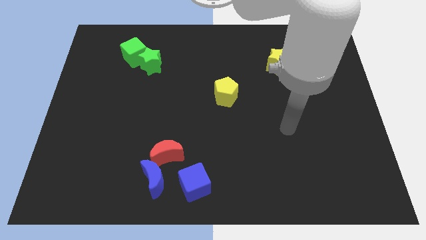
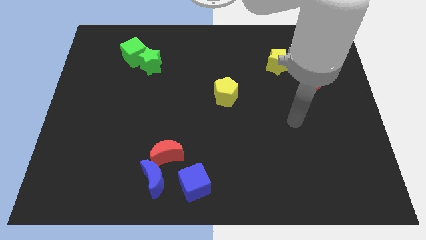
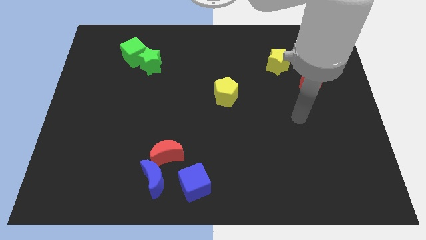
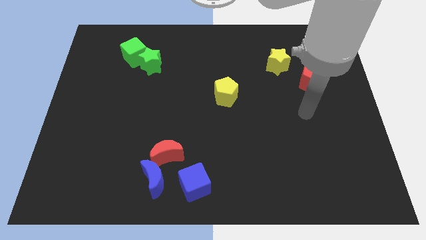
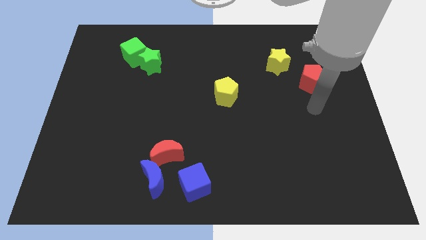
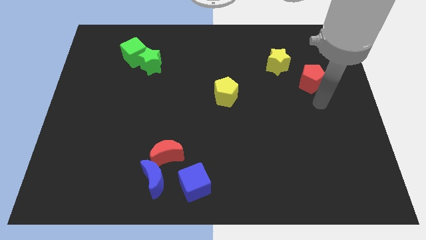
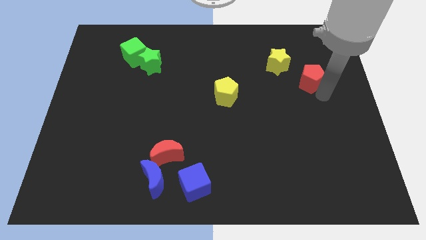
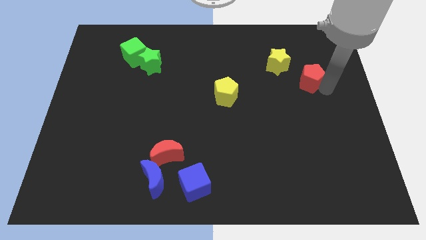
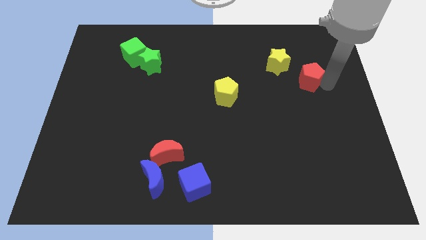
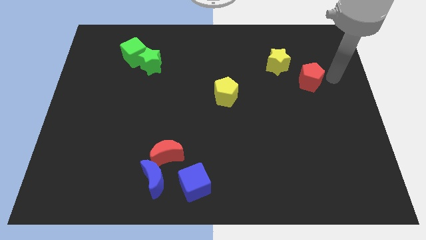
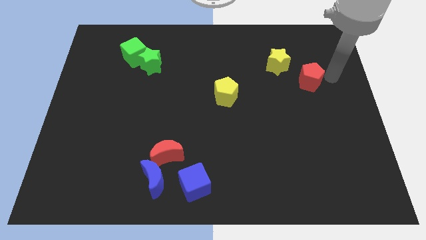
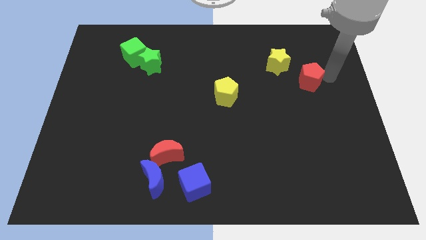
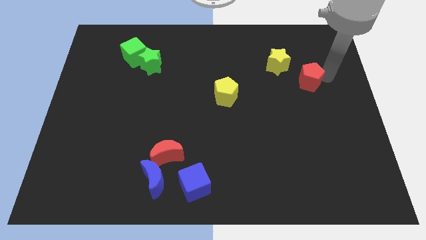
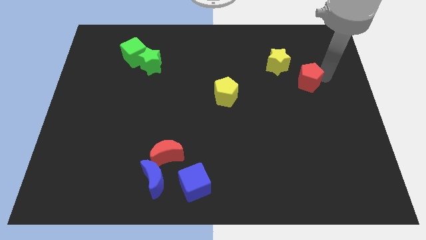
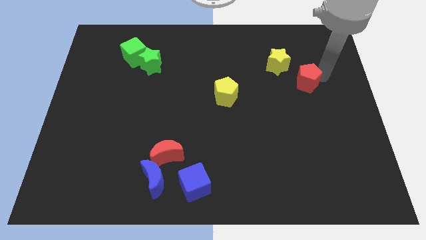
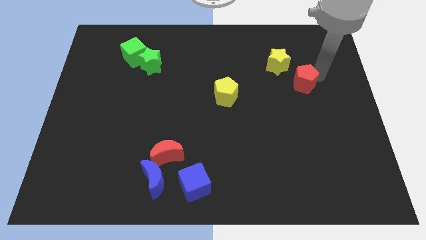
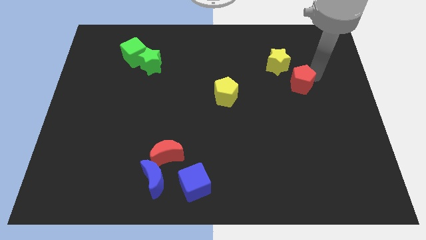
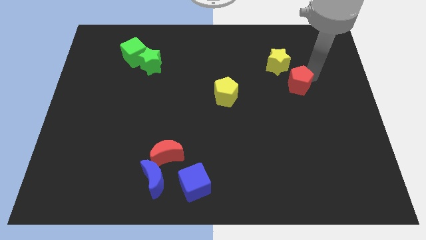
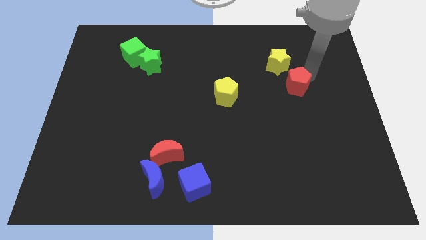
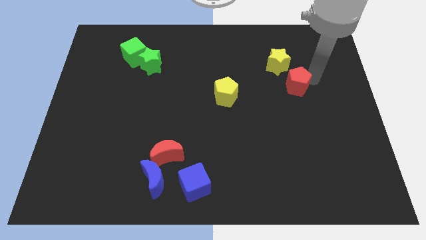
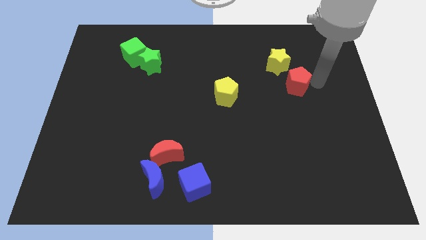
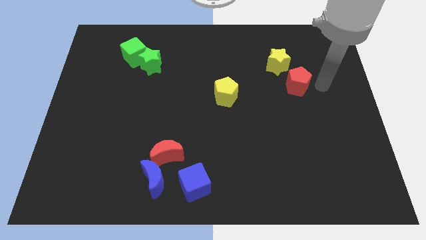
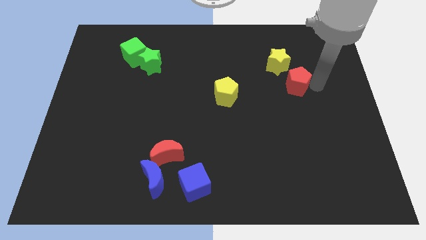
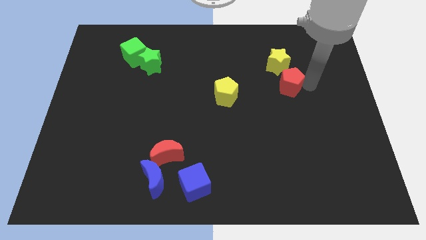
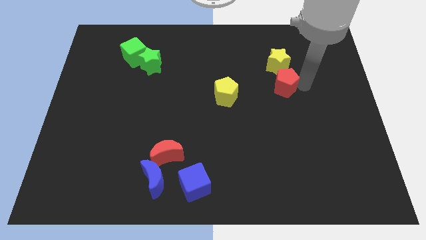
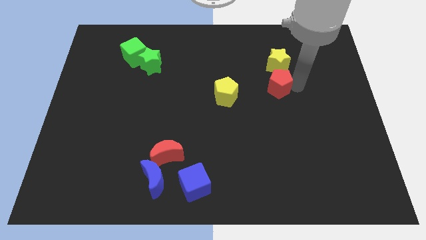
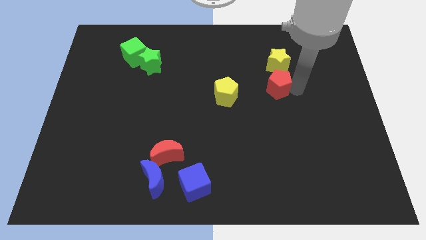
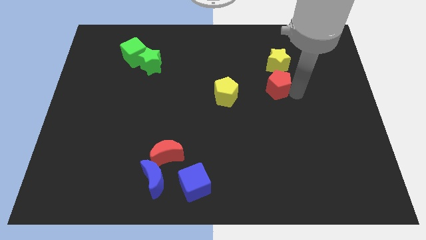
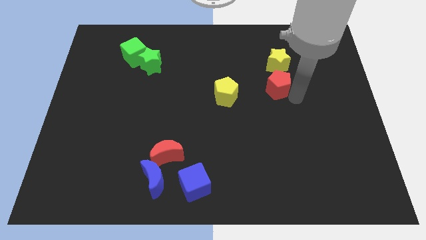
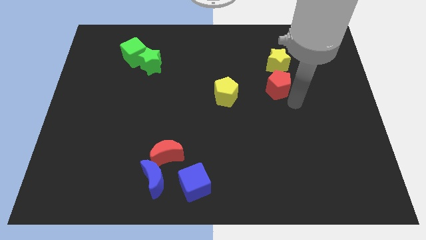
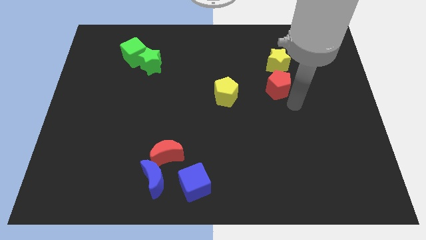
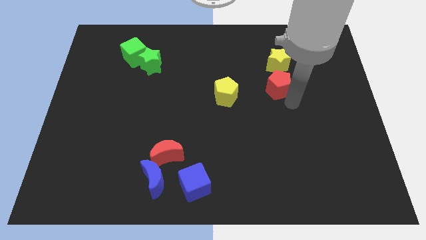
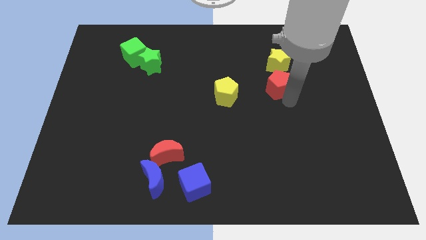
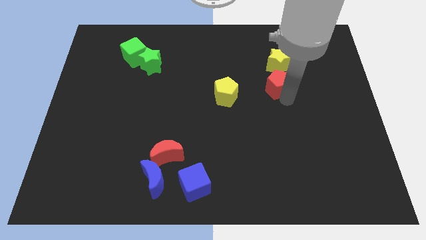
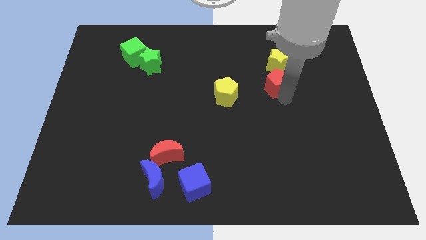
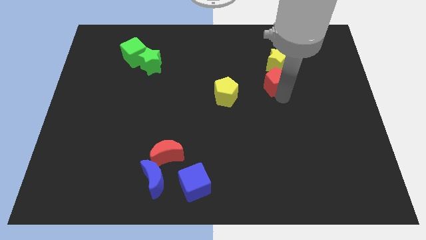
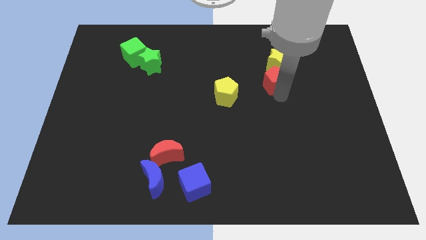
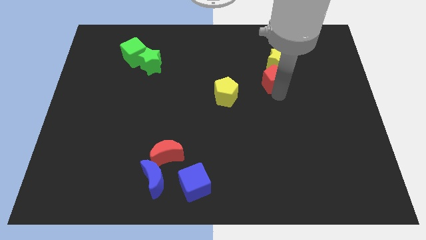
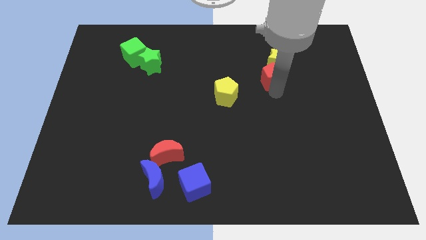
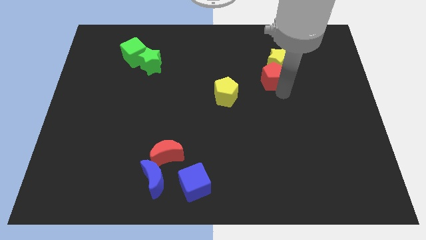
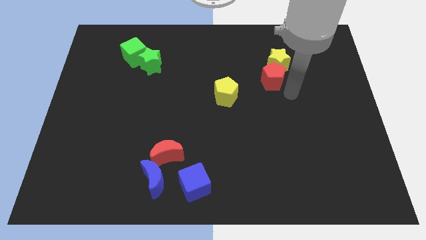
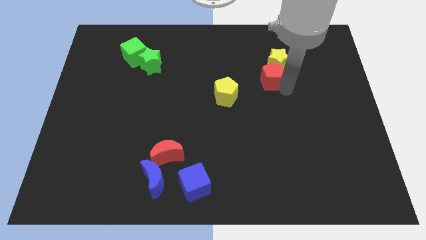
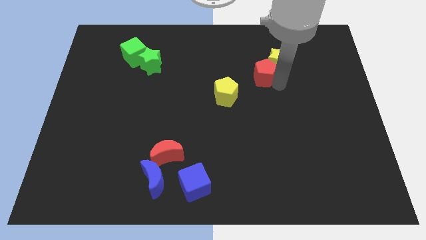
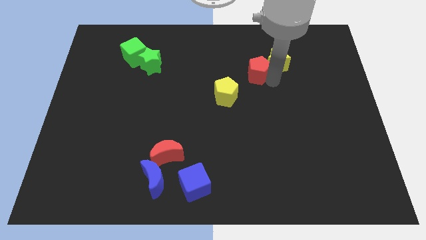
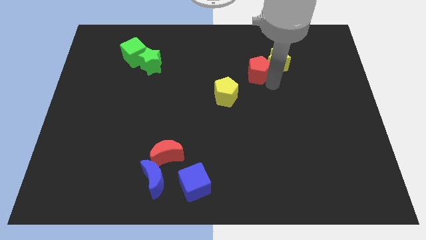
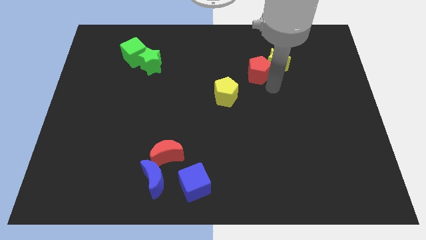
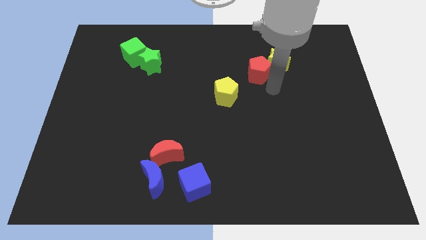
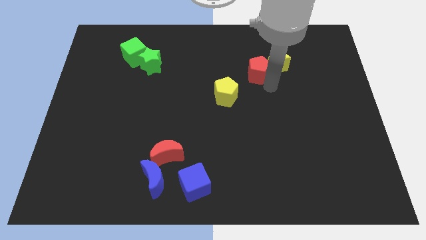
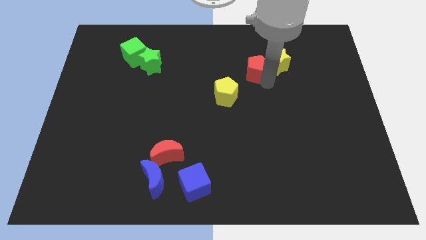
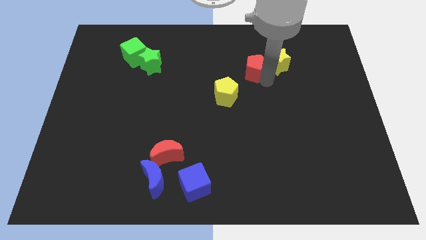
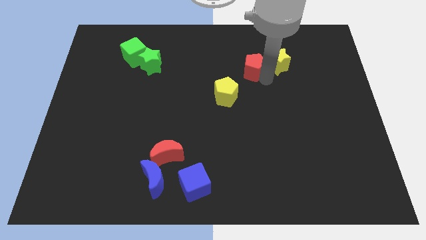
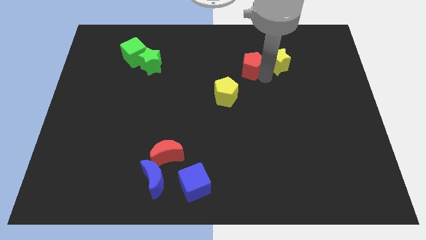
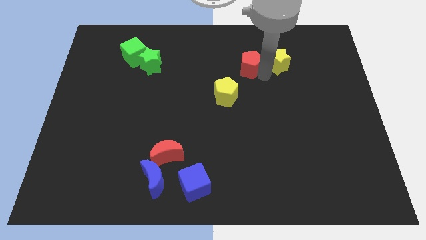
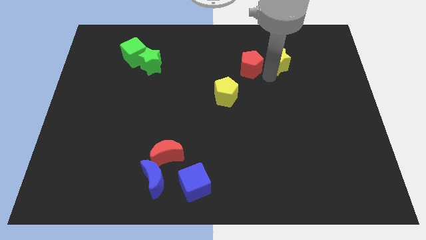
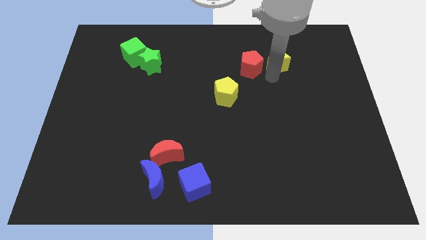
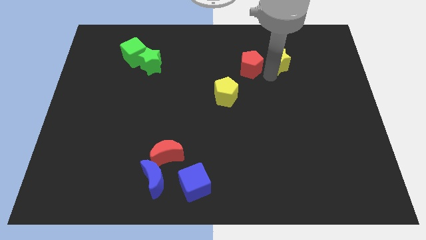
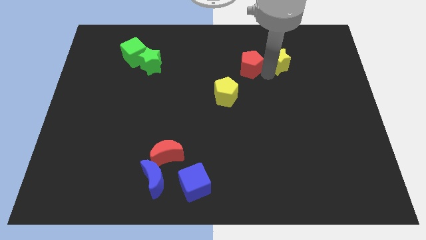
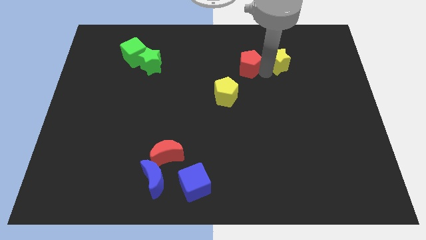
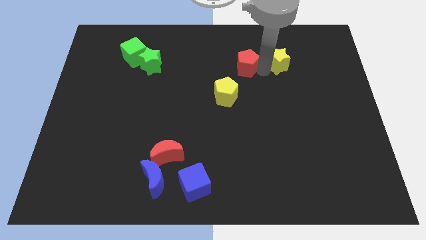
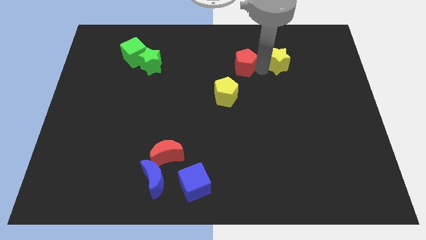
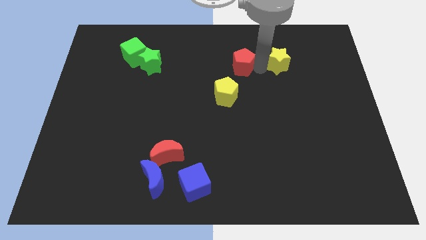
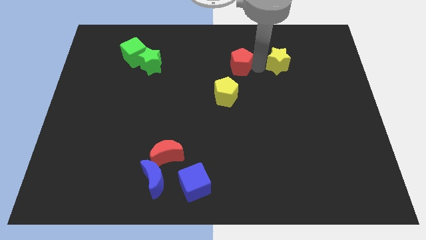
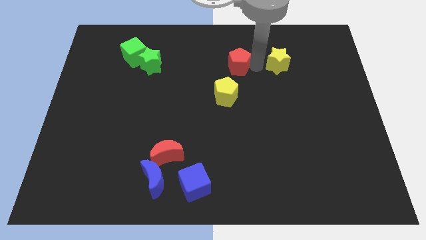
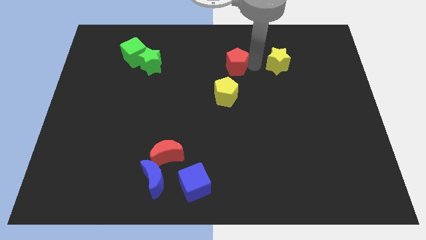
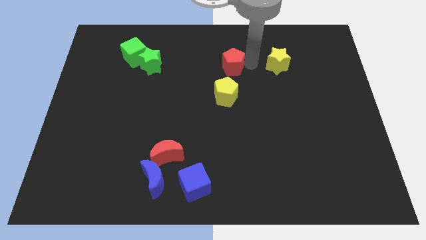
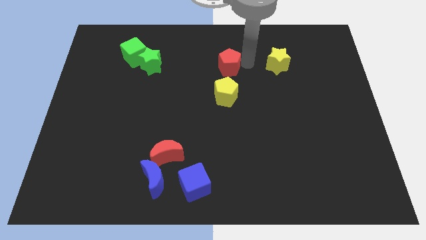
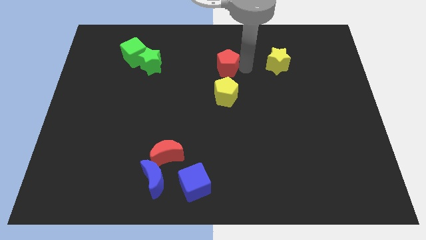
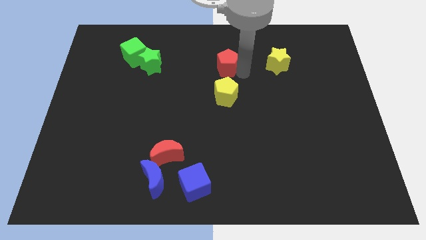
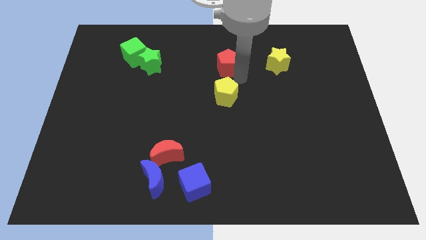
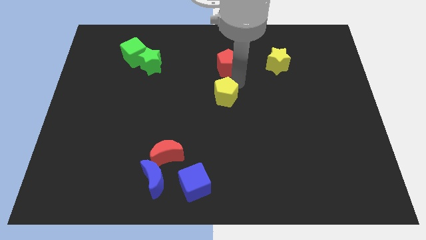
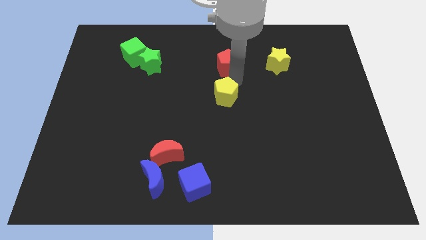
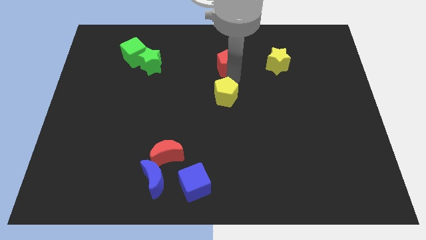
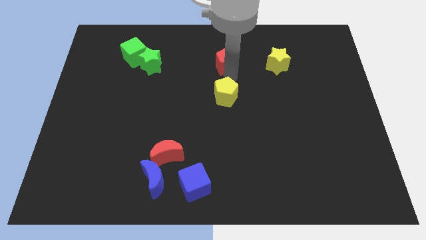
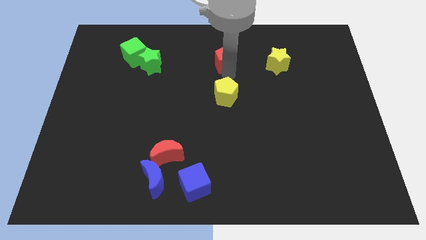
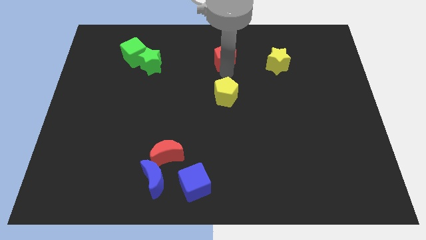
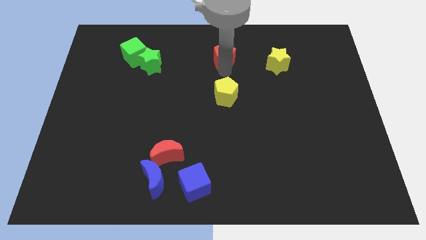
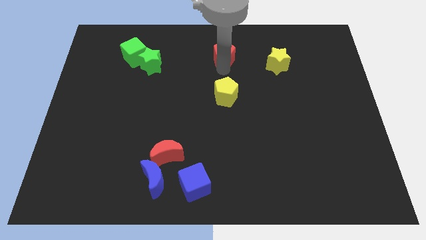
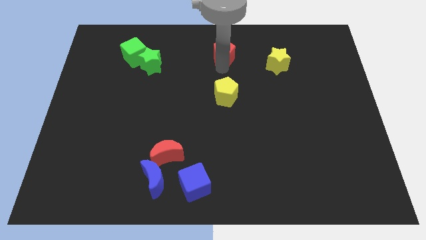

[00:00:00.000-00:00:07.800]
move the red pentagon to the top
